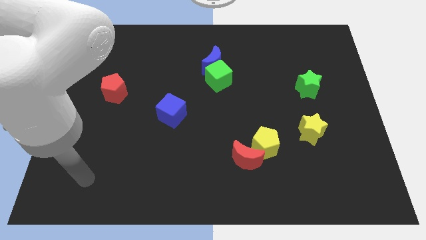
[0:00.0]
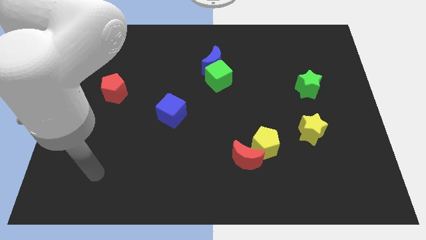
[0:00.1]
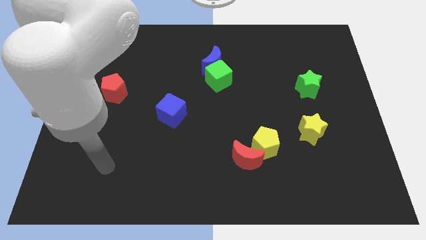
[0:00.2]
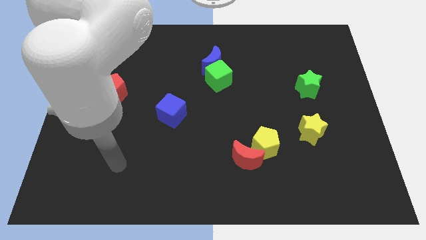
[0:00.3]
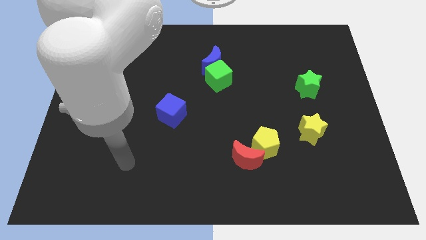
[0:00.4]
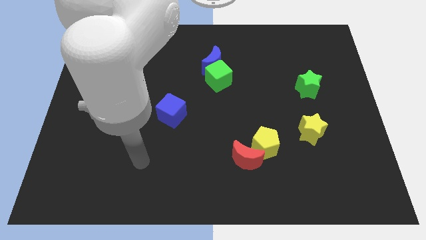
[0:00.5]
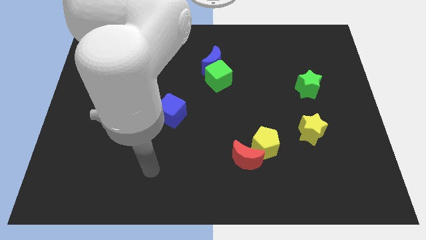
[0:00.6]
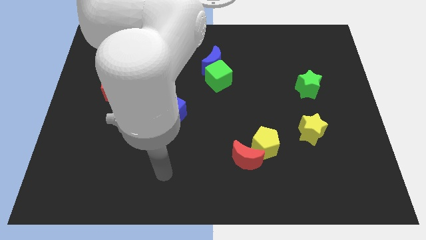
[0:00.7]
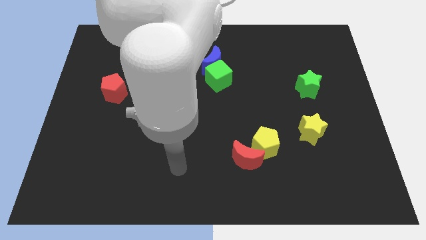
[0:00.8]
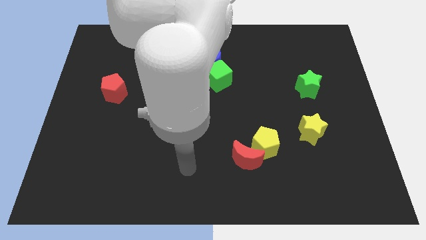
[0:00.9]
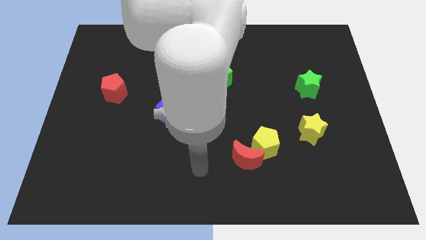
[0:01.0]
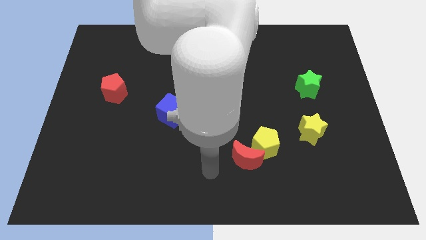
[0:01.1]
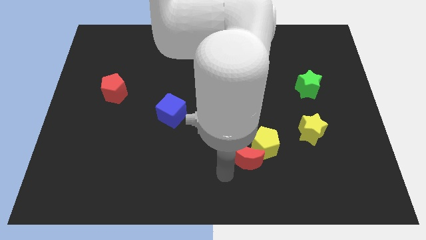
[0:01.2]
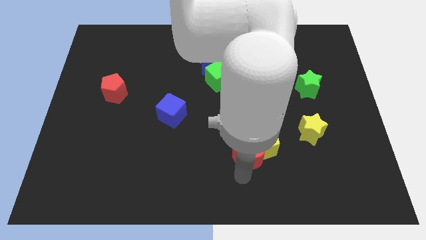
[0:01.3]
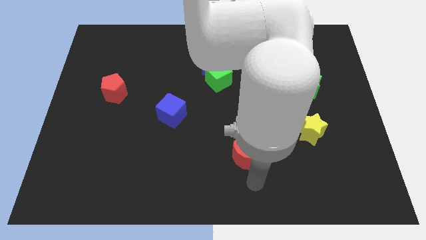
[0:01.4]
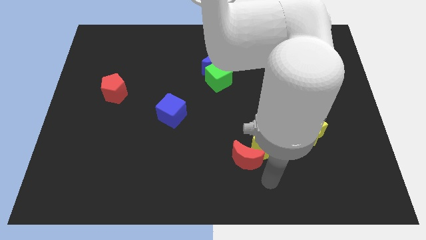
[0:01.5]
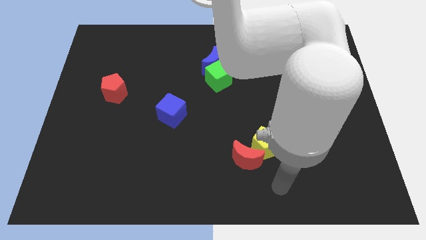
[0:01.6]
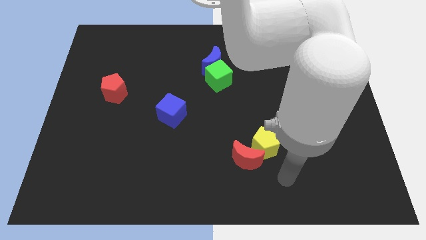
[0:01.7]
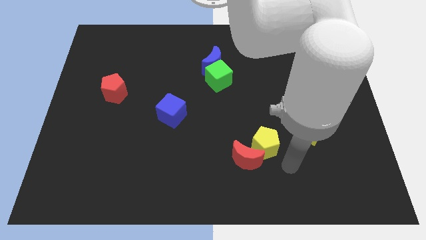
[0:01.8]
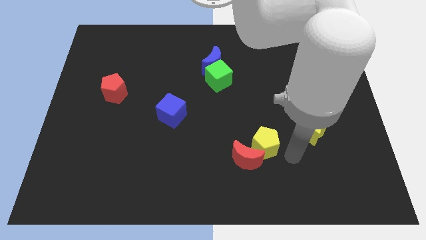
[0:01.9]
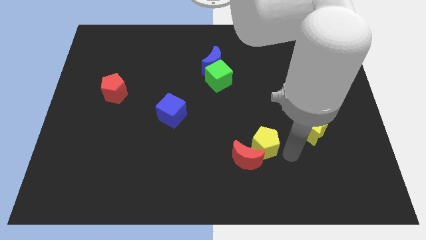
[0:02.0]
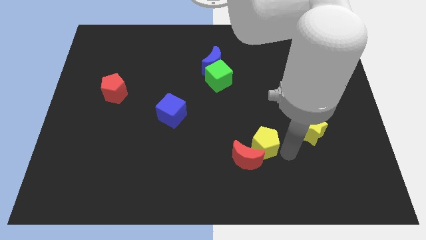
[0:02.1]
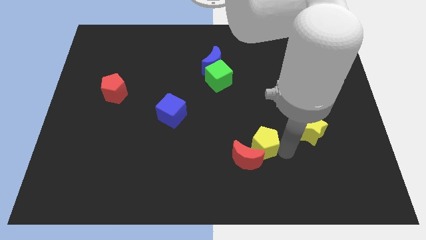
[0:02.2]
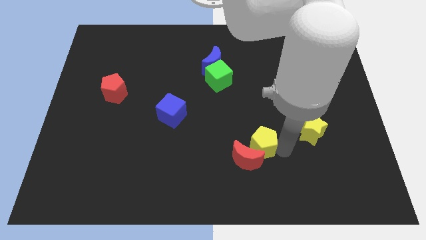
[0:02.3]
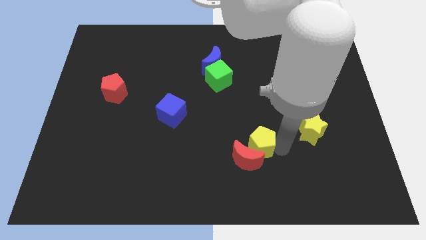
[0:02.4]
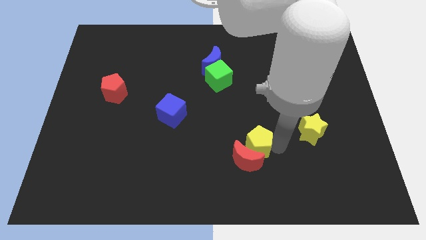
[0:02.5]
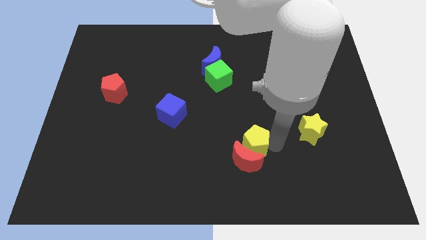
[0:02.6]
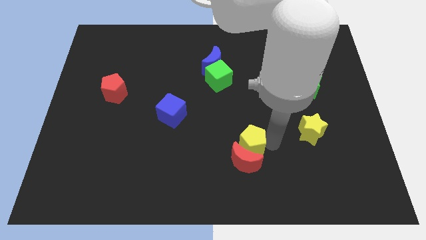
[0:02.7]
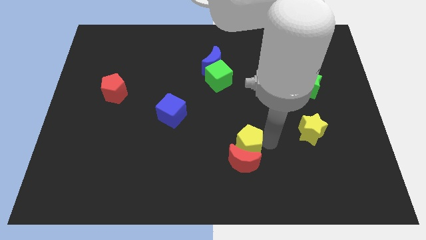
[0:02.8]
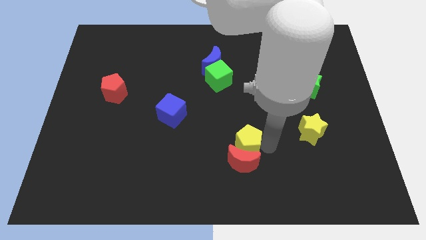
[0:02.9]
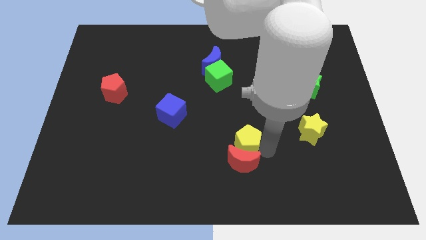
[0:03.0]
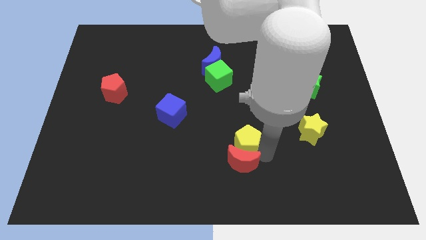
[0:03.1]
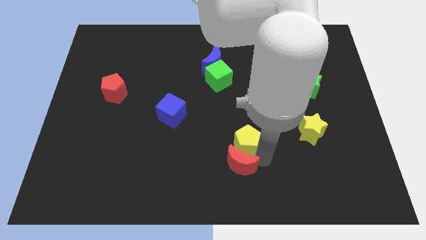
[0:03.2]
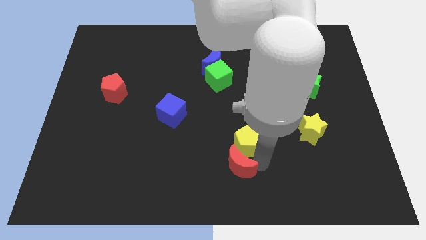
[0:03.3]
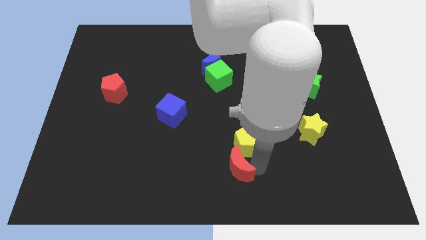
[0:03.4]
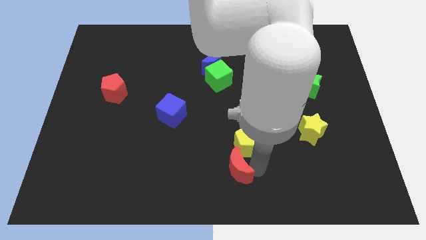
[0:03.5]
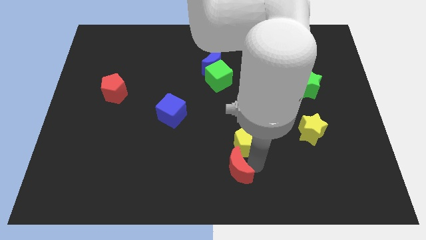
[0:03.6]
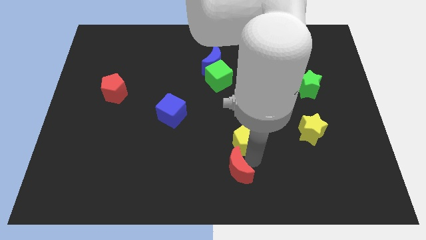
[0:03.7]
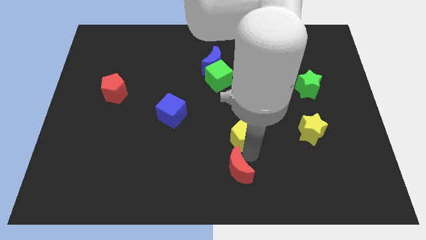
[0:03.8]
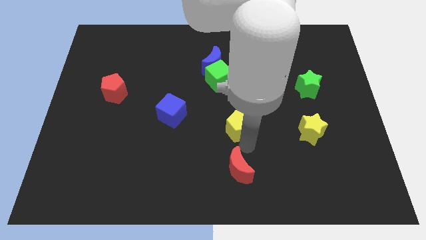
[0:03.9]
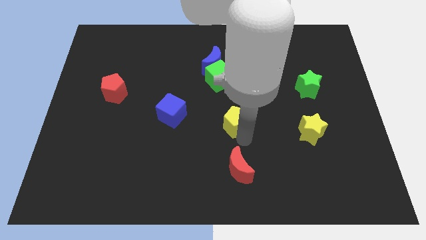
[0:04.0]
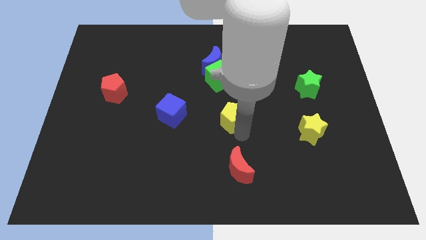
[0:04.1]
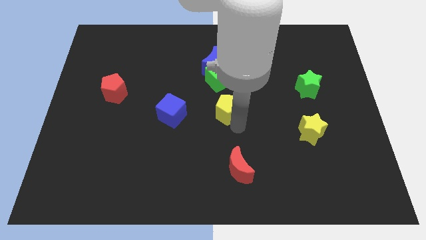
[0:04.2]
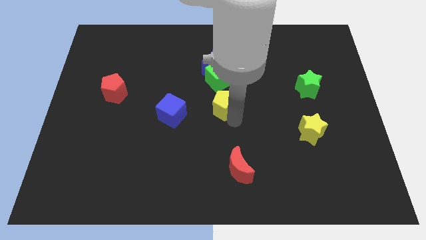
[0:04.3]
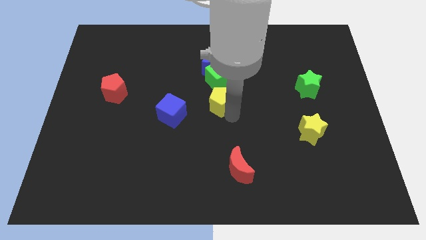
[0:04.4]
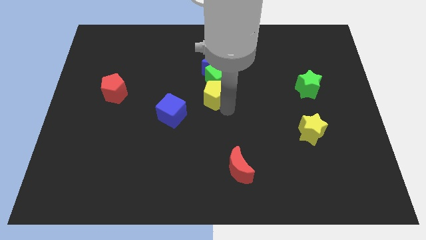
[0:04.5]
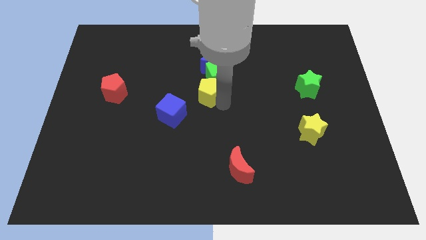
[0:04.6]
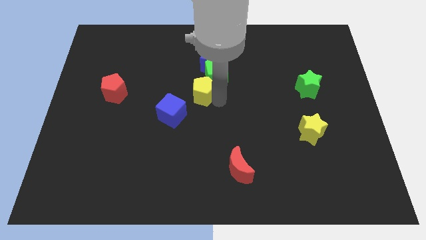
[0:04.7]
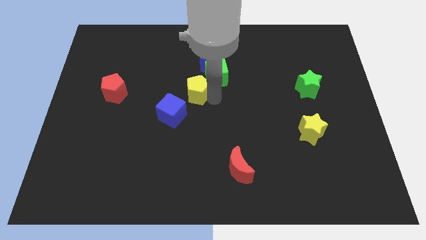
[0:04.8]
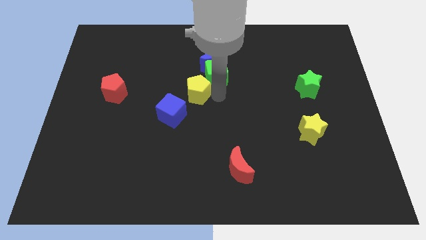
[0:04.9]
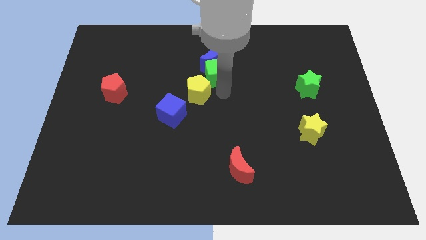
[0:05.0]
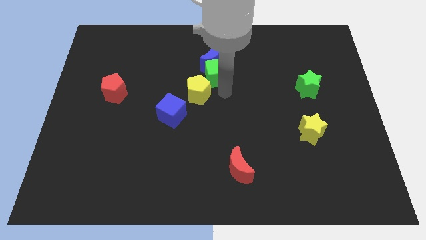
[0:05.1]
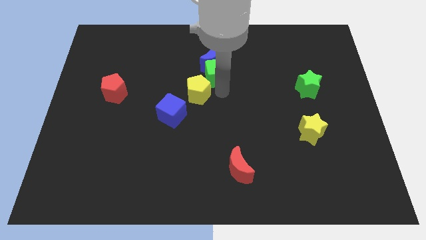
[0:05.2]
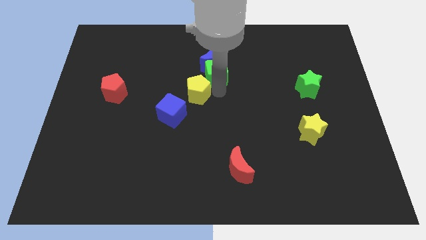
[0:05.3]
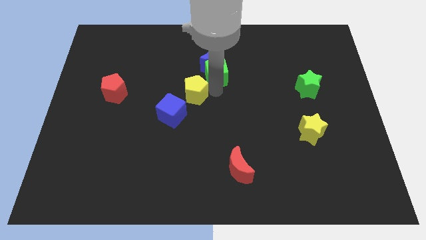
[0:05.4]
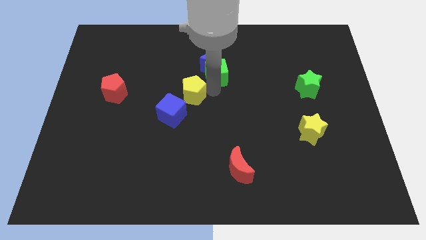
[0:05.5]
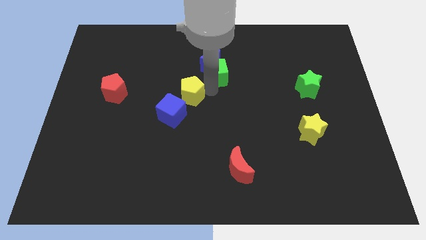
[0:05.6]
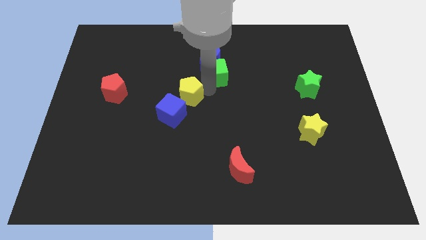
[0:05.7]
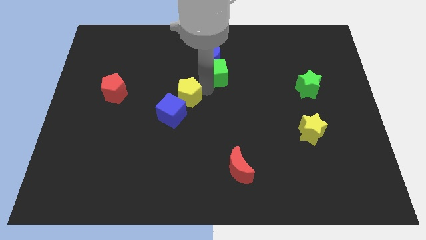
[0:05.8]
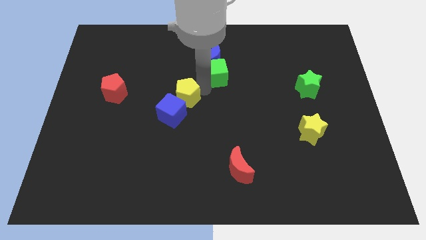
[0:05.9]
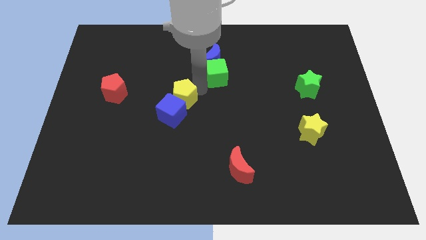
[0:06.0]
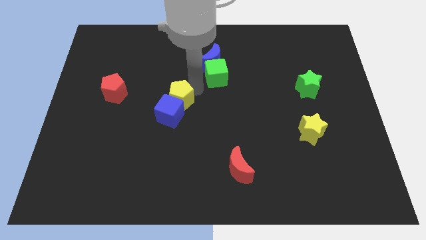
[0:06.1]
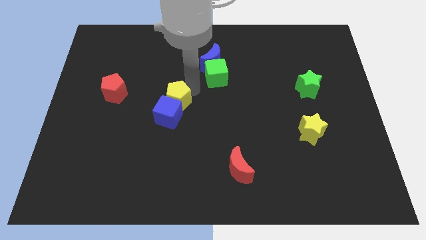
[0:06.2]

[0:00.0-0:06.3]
put the yellow pentagon diagonally up and to the left of the blue cube
